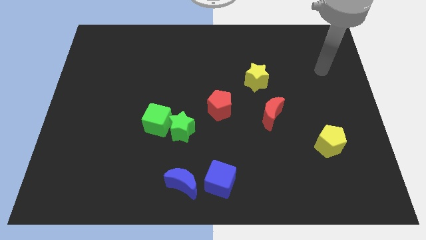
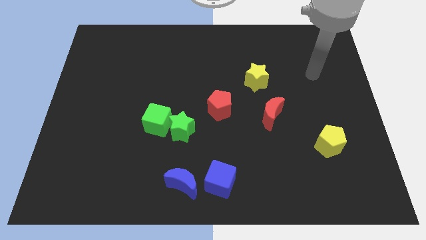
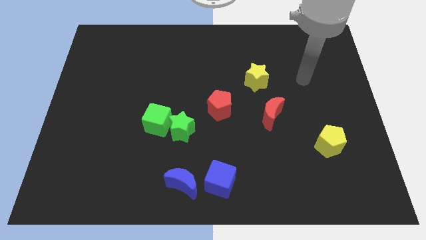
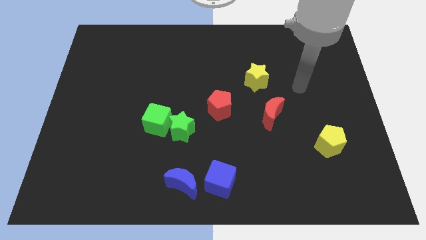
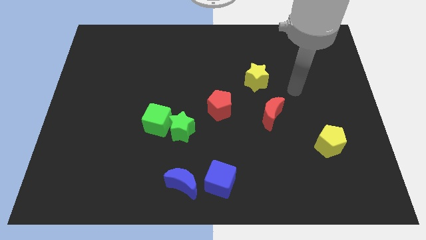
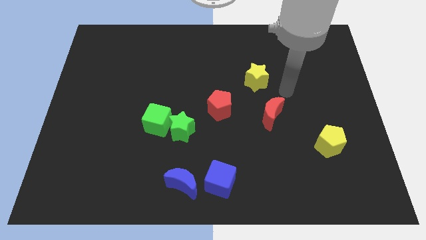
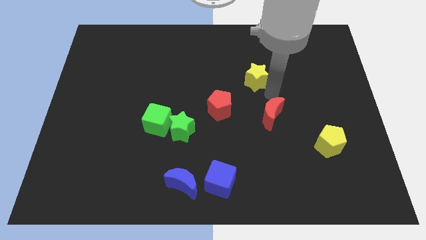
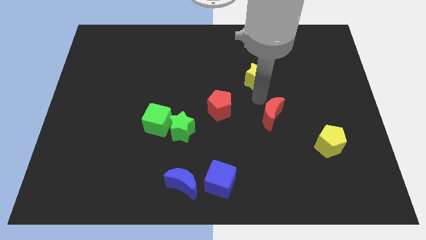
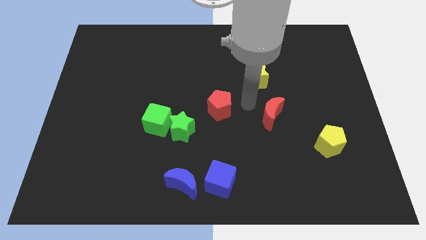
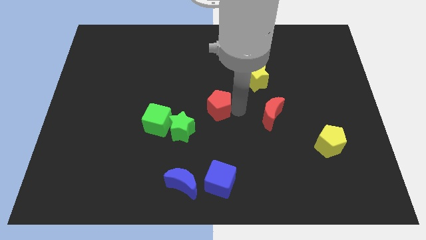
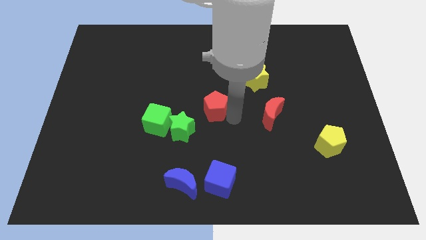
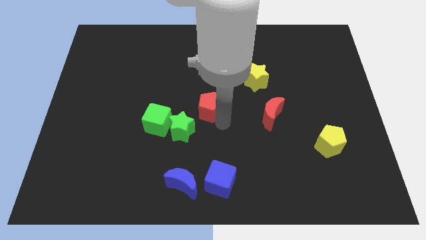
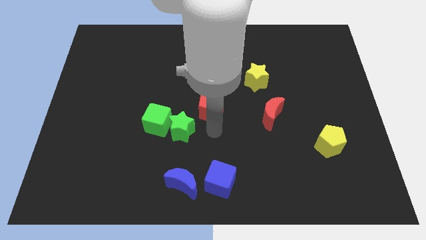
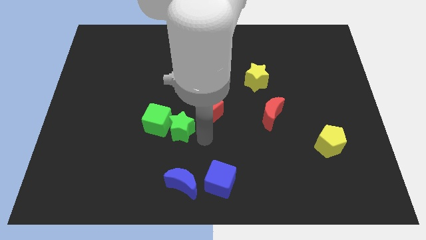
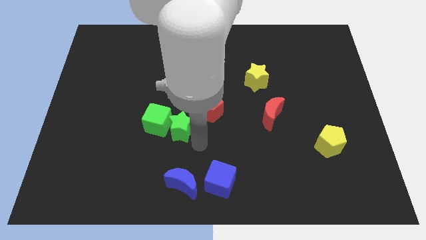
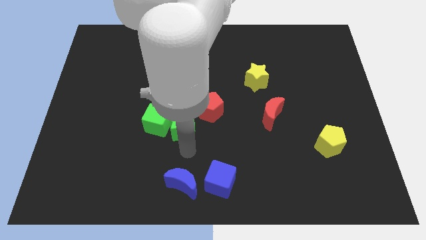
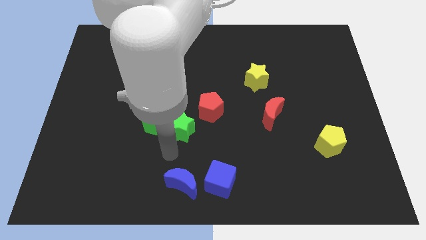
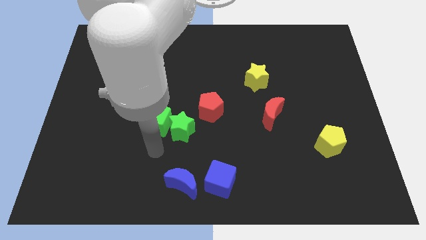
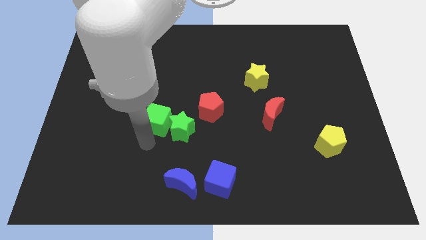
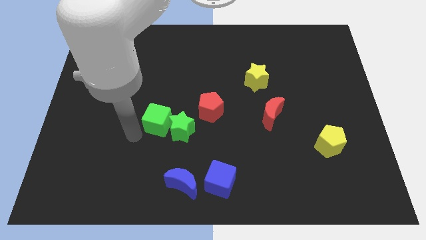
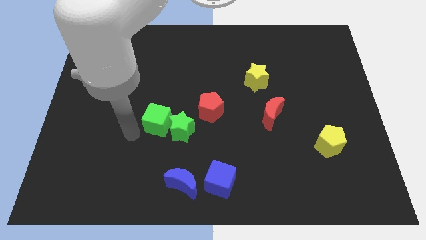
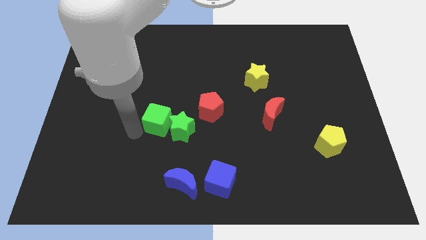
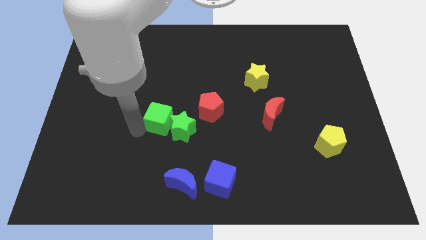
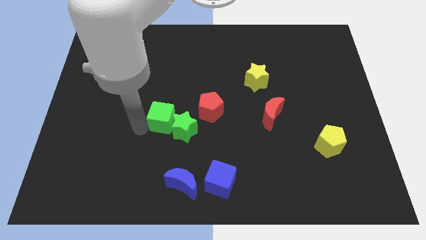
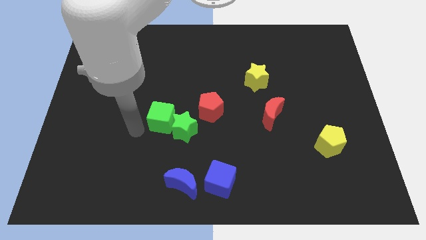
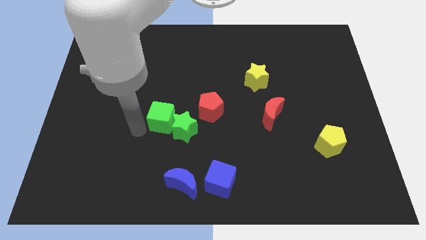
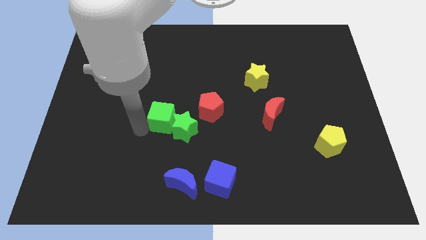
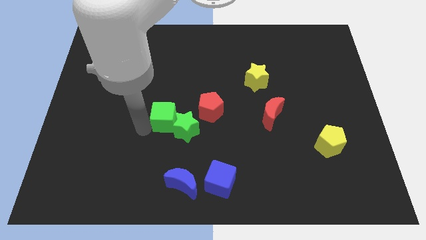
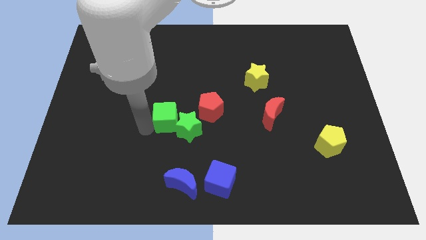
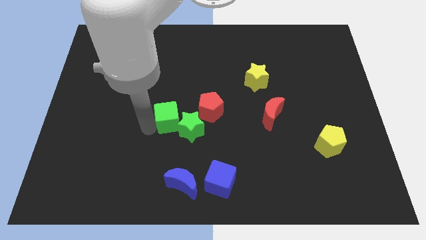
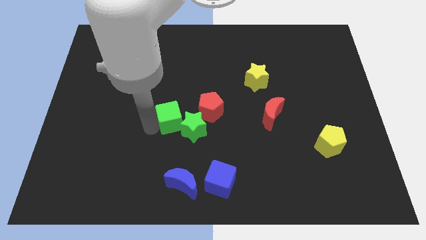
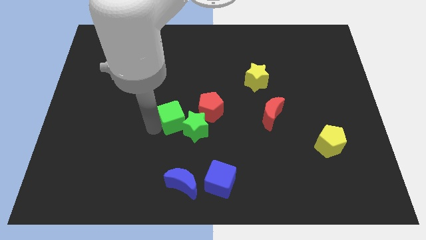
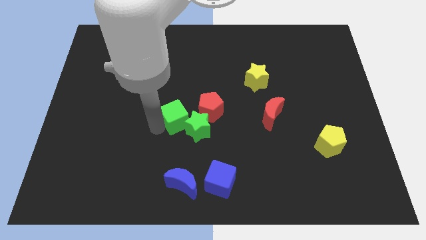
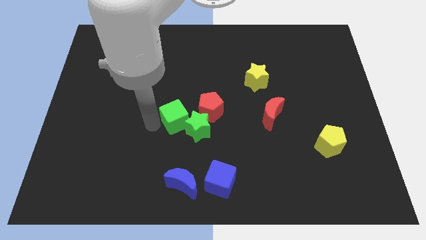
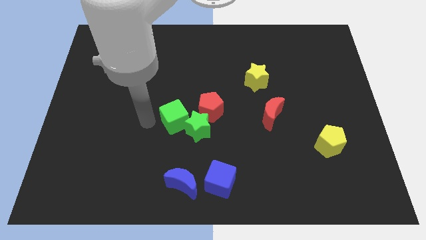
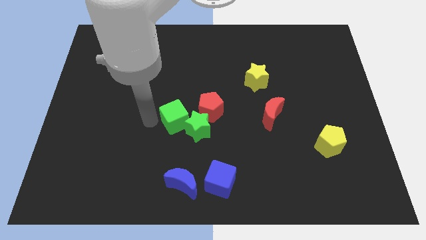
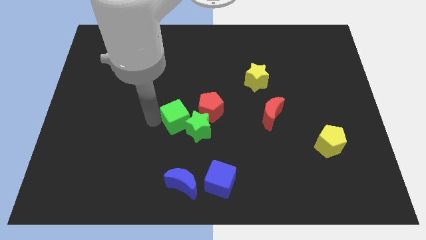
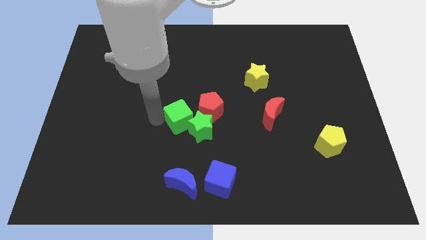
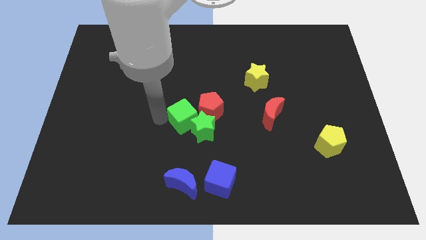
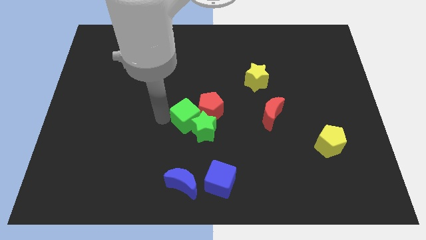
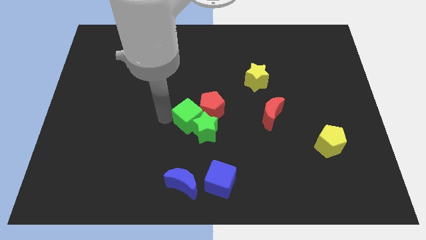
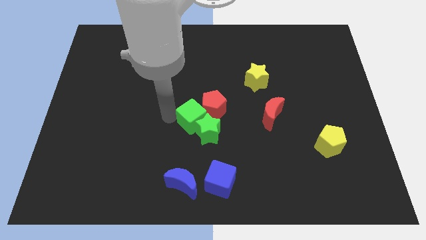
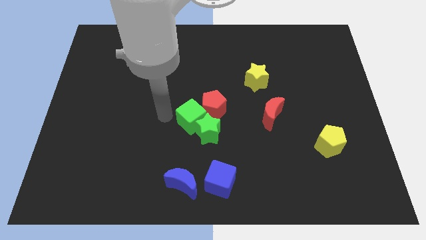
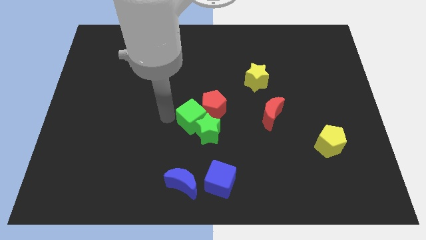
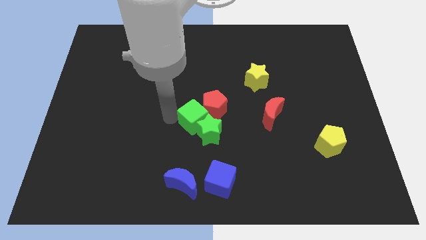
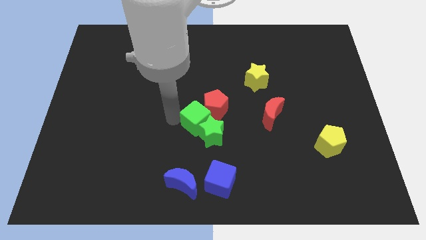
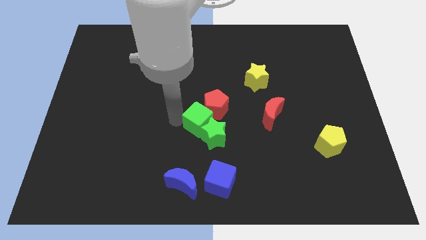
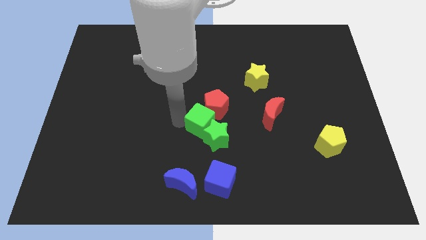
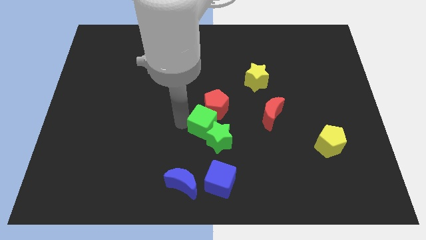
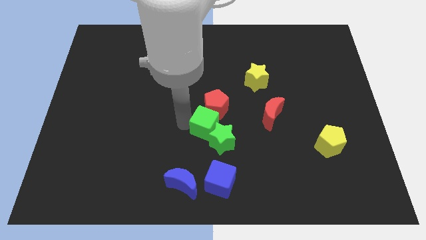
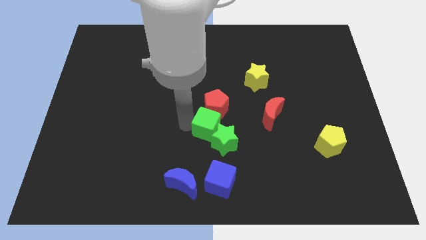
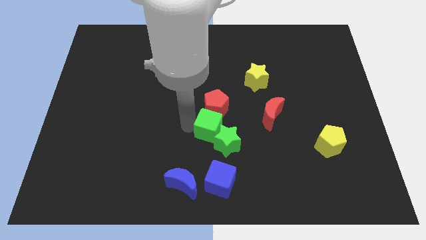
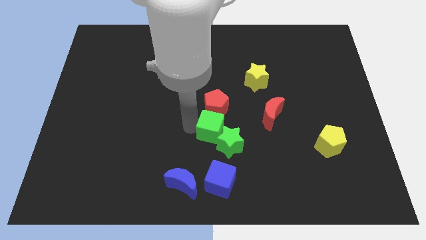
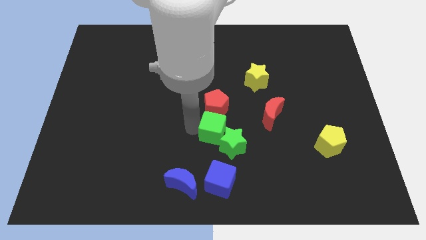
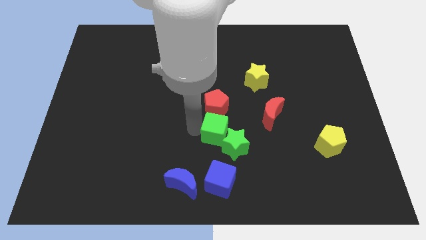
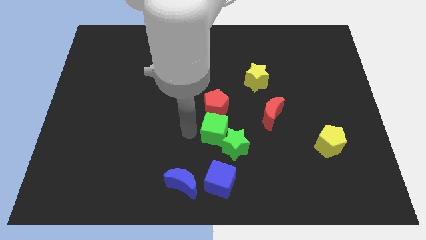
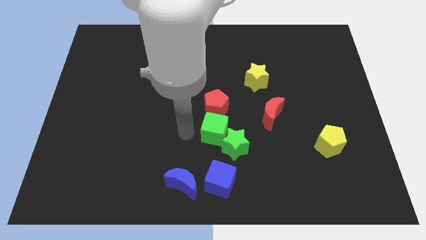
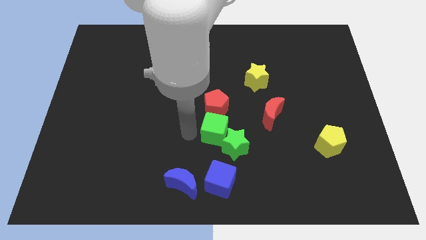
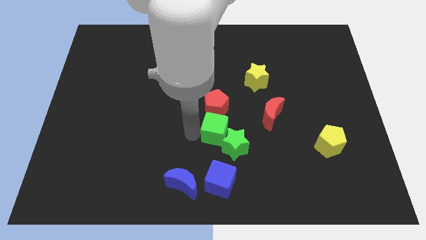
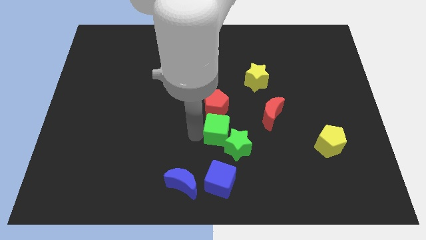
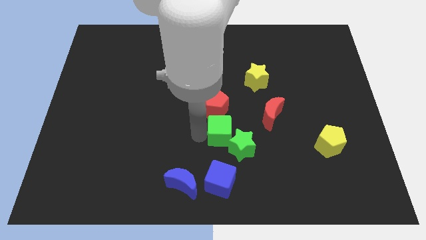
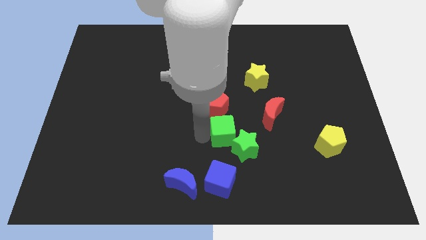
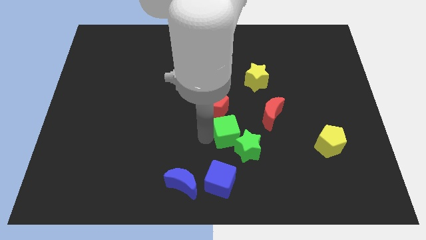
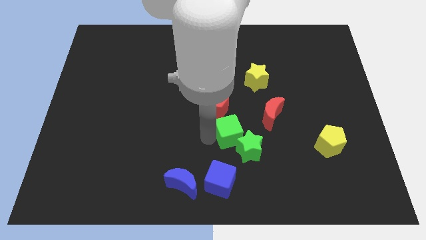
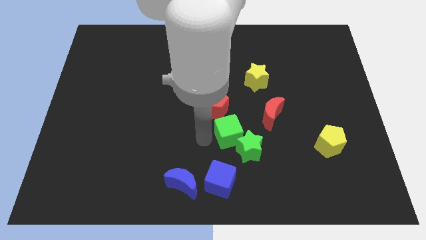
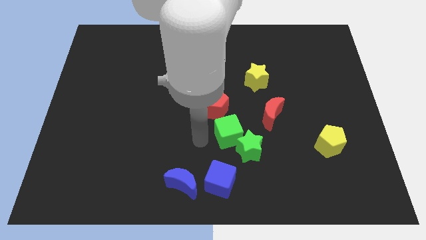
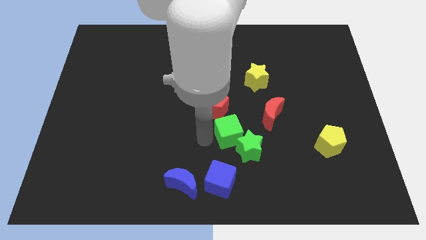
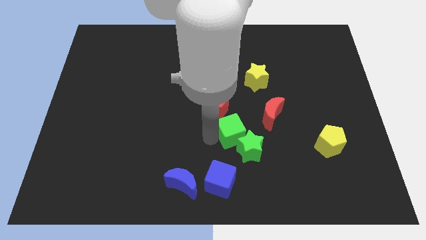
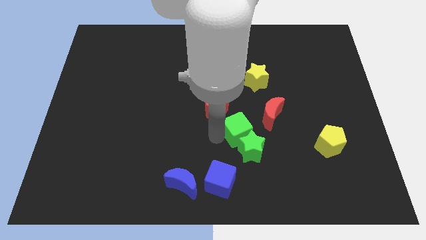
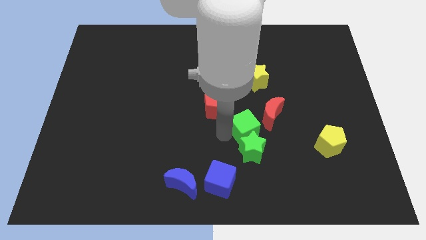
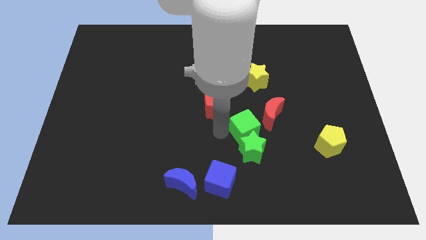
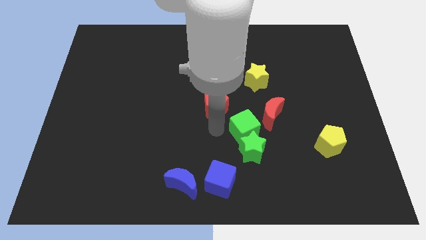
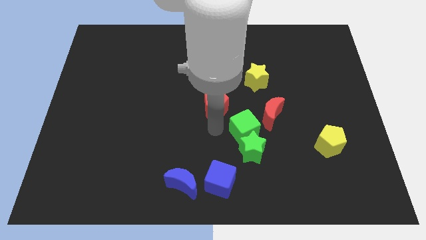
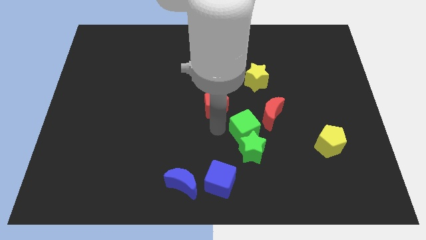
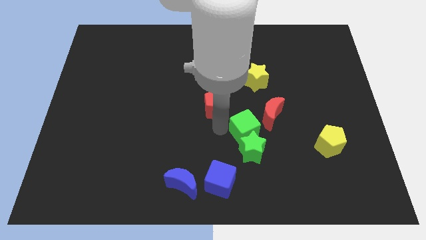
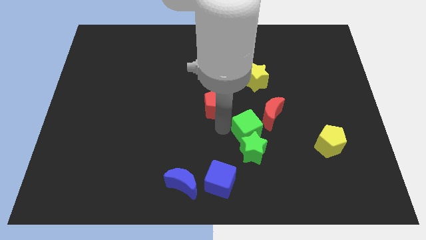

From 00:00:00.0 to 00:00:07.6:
slide the green cube to the right

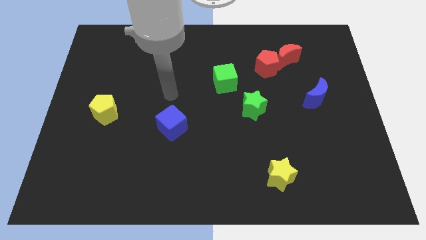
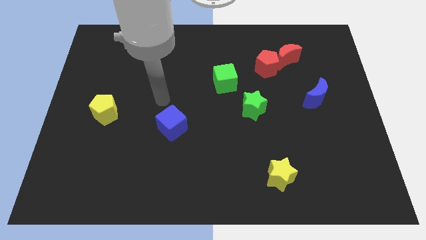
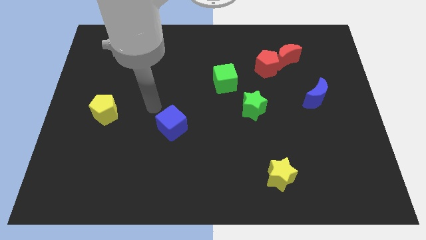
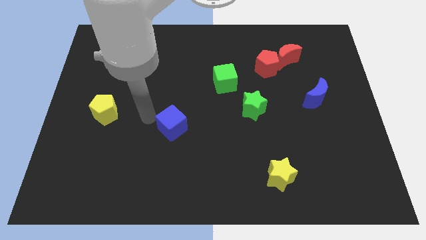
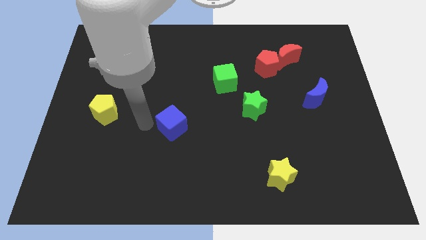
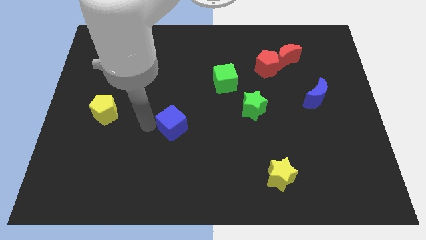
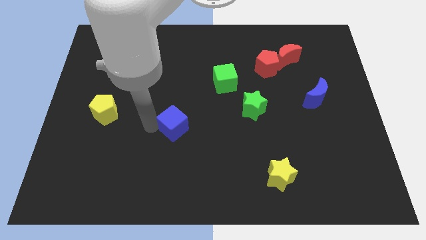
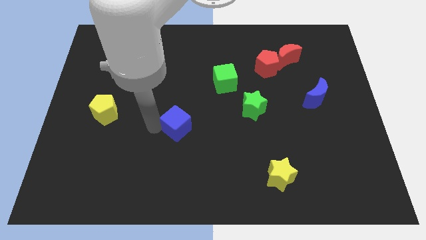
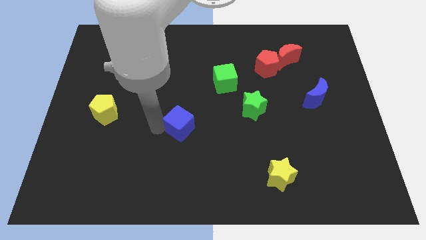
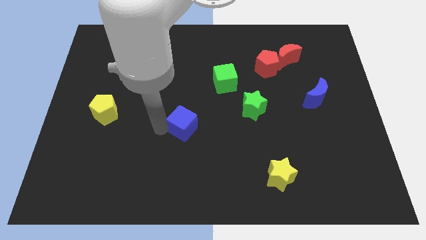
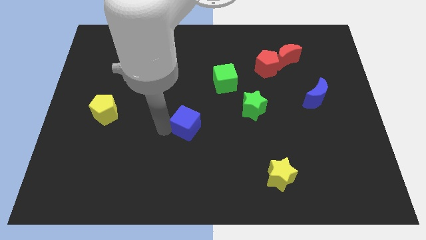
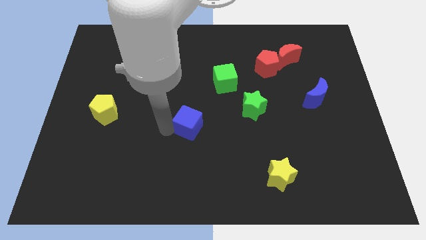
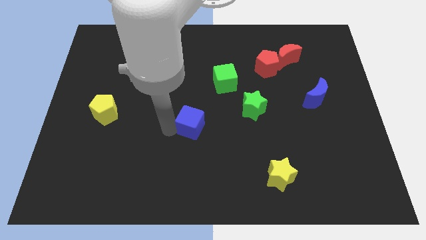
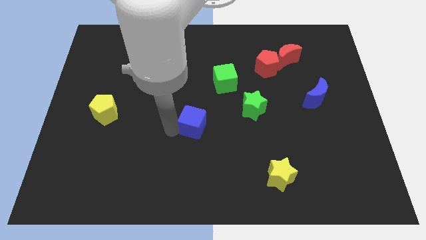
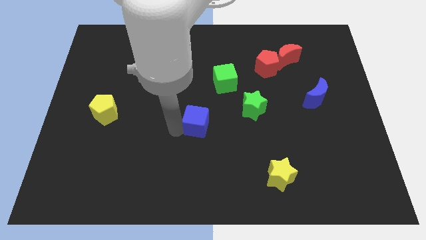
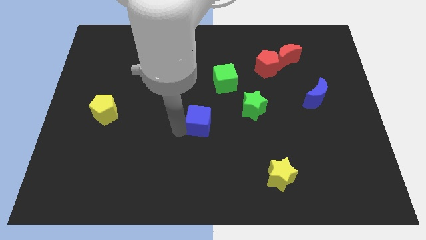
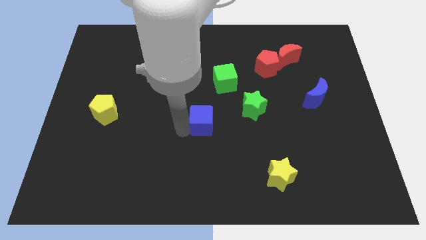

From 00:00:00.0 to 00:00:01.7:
slightly move the blue cube to the right
